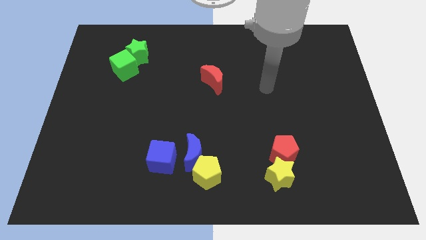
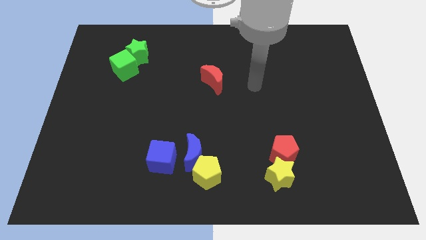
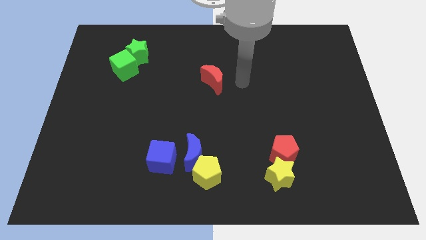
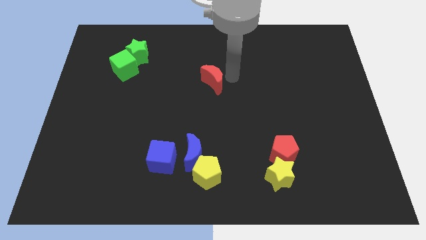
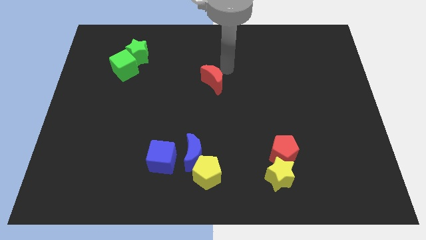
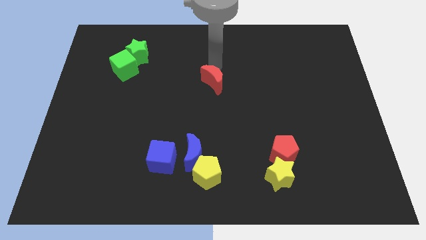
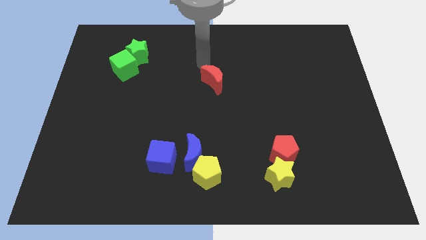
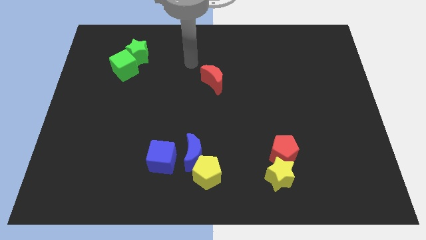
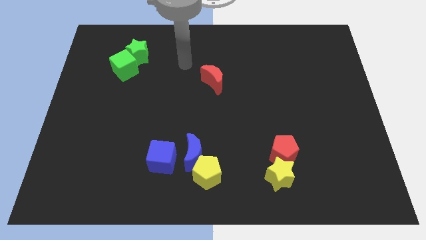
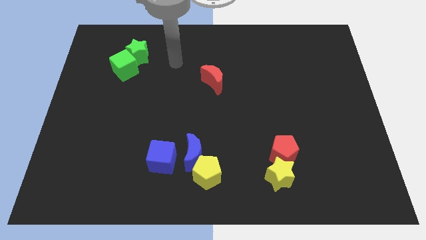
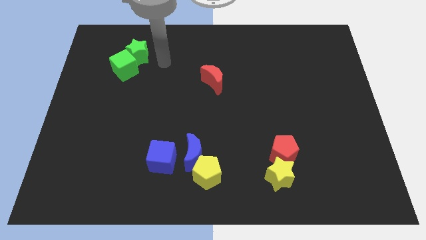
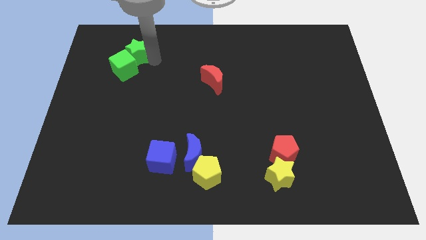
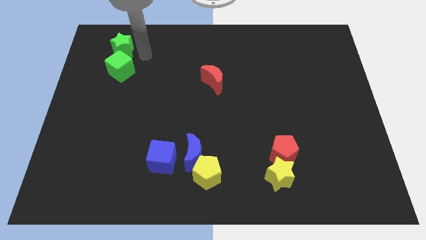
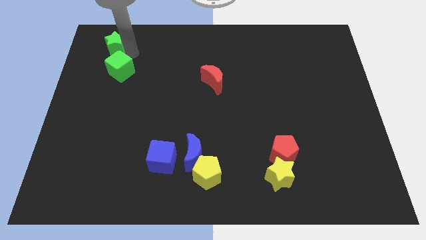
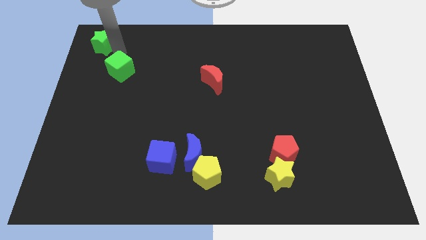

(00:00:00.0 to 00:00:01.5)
move the green cube away from the green star

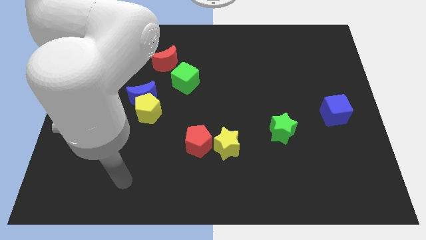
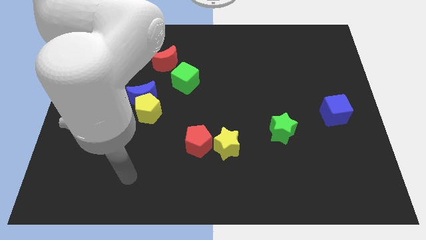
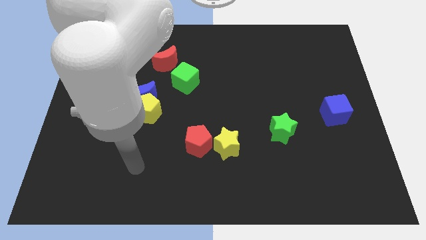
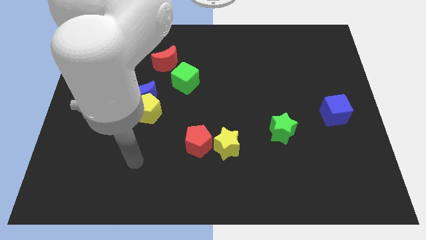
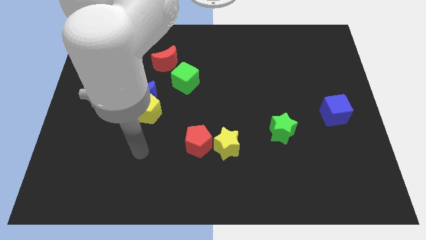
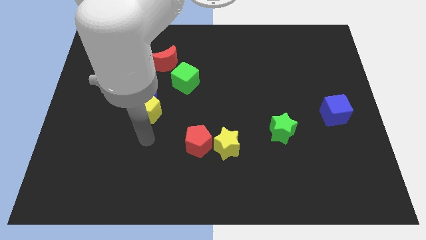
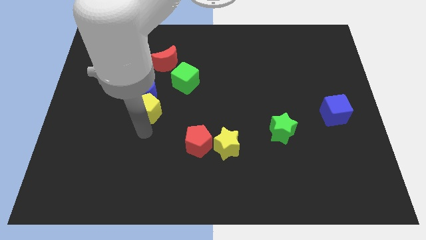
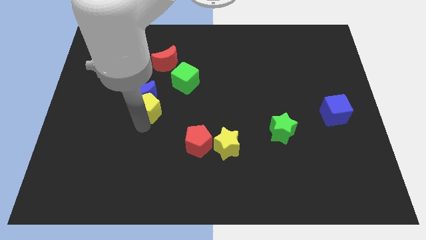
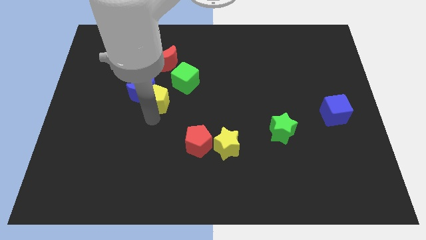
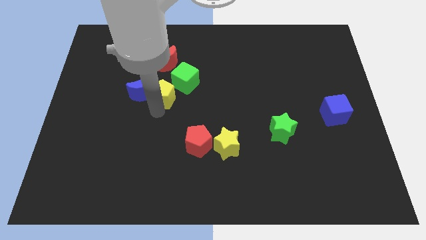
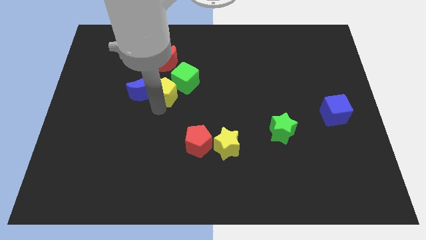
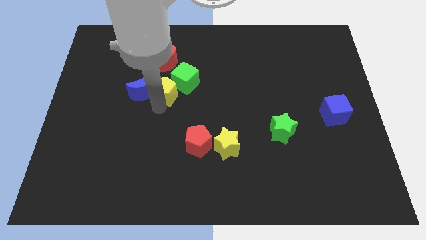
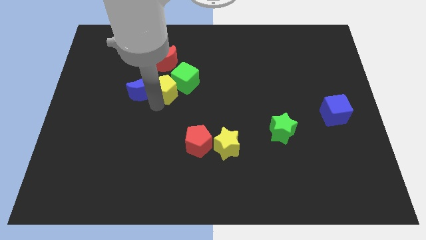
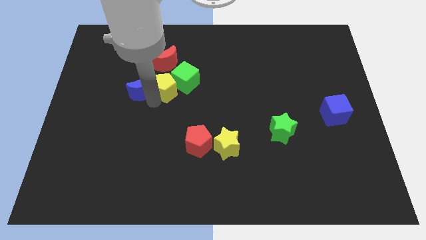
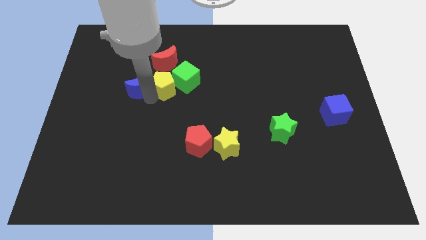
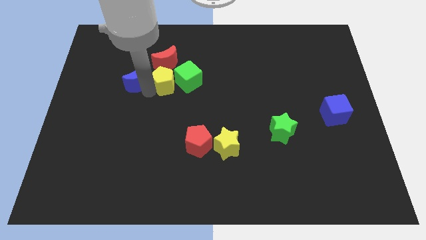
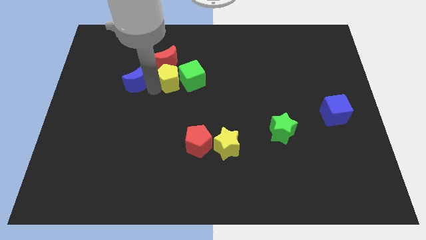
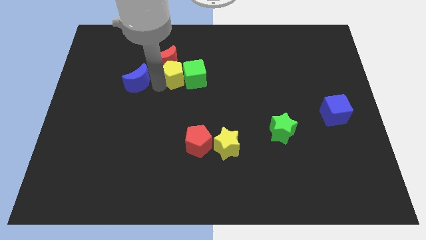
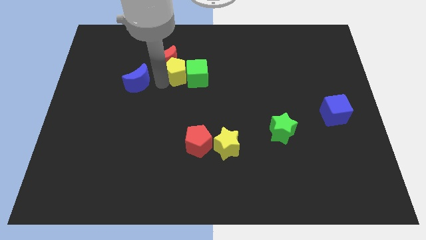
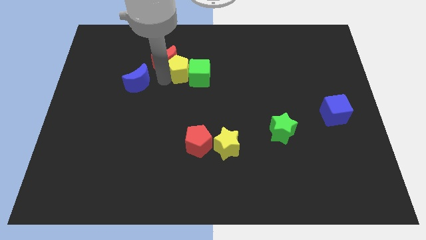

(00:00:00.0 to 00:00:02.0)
separate the blue moon from the yellow pentagon

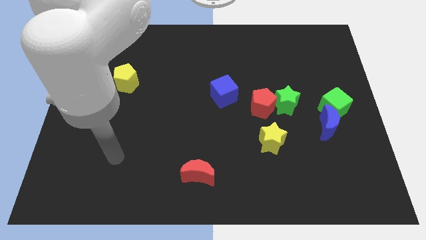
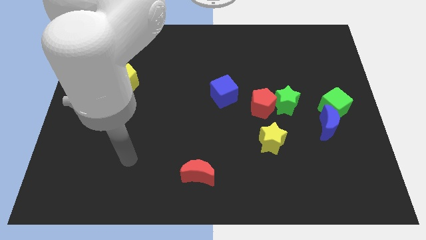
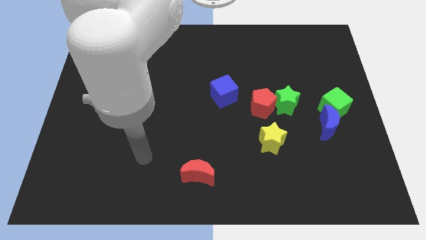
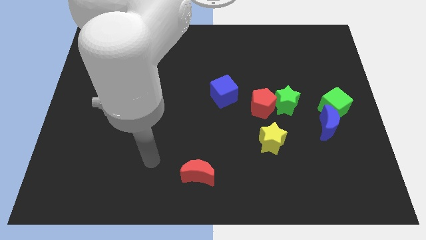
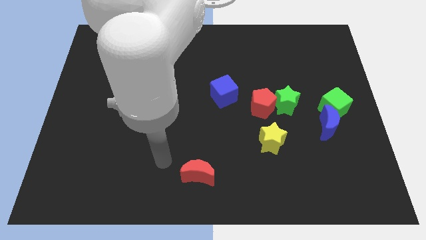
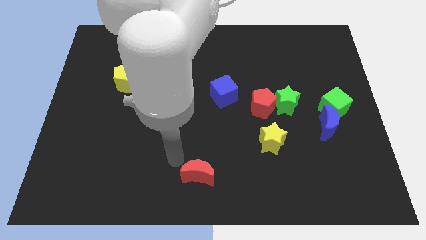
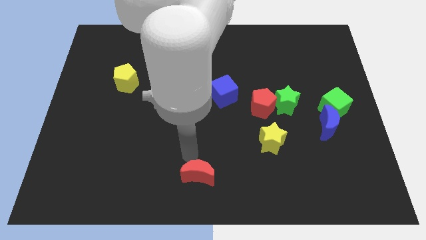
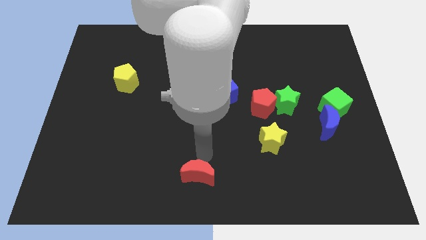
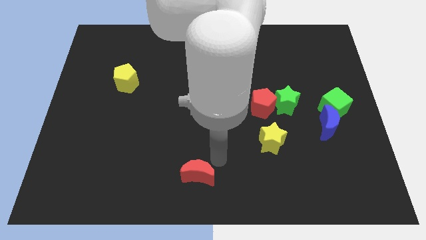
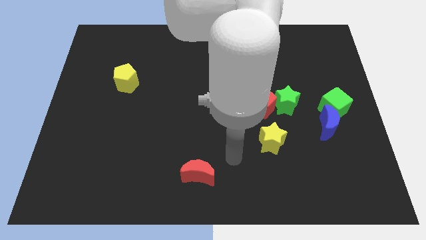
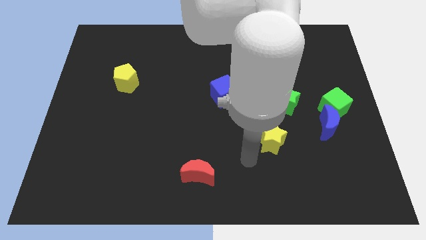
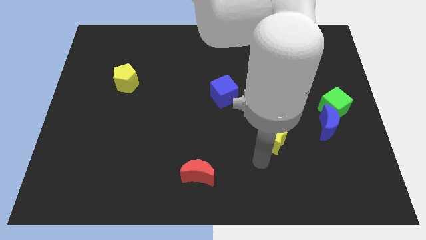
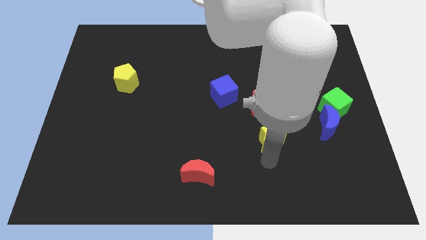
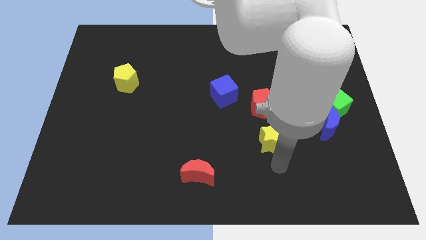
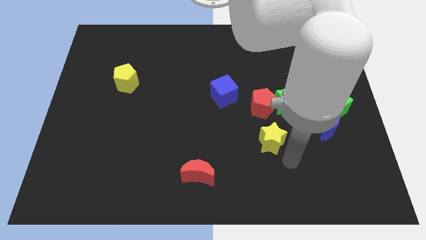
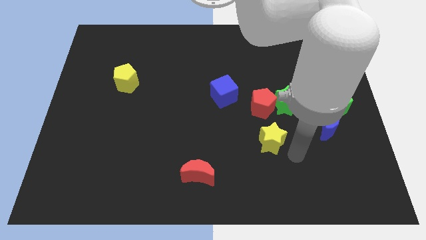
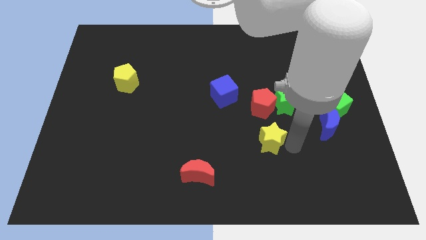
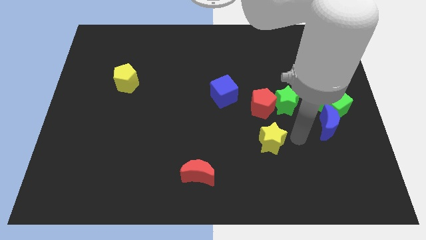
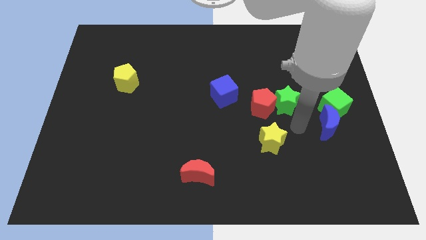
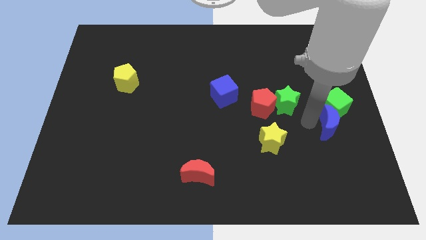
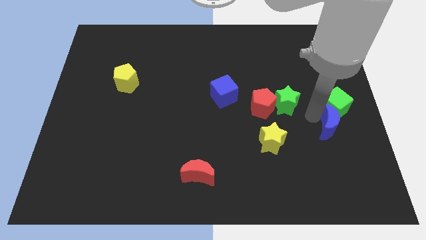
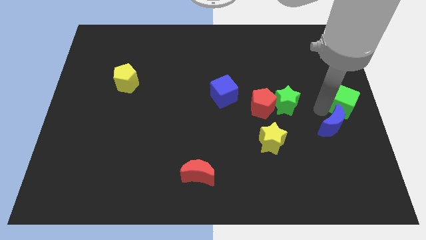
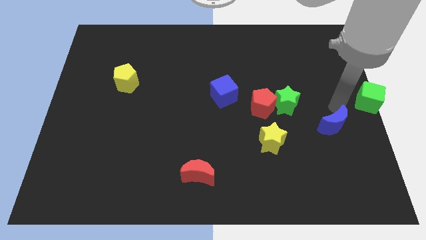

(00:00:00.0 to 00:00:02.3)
separate the blue moon from the green cube

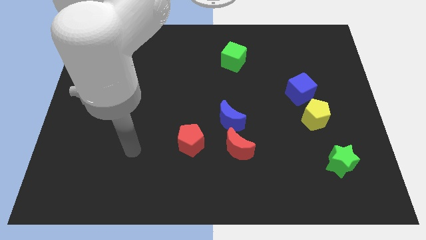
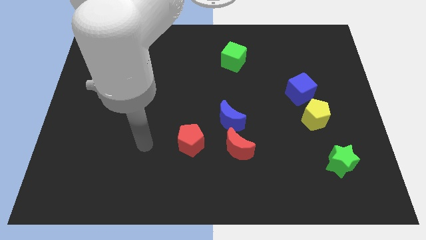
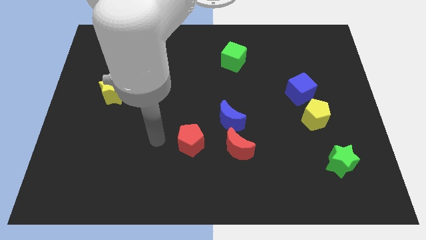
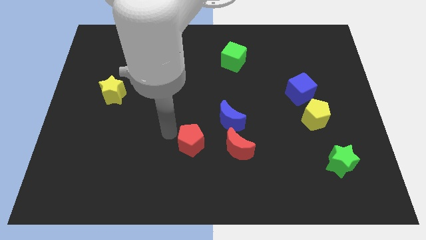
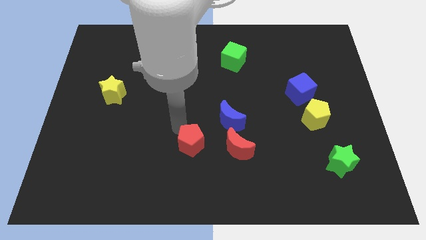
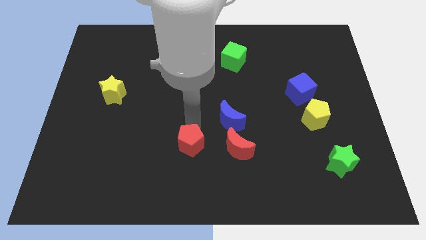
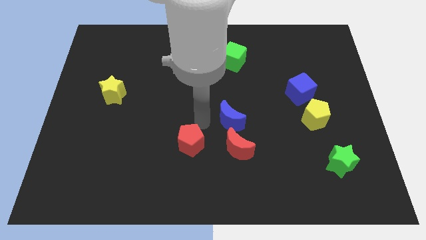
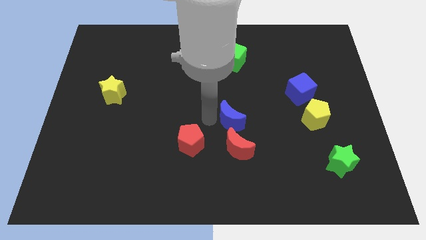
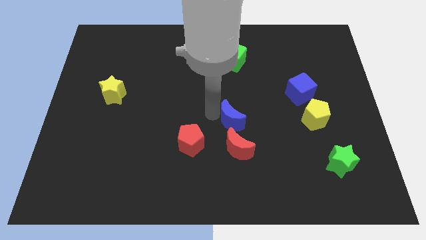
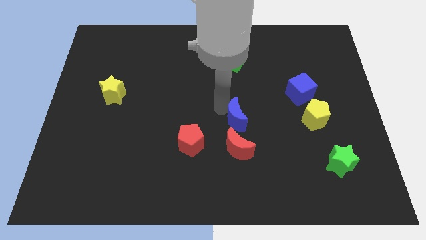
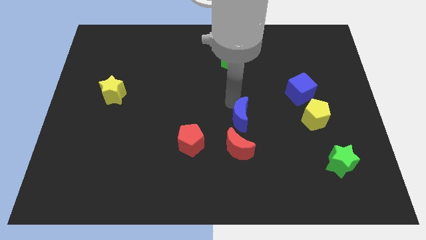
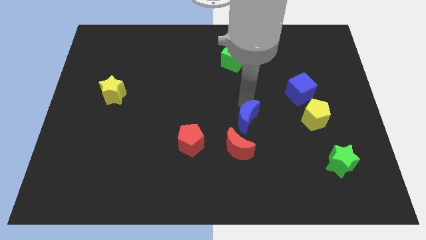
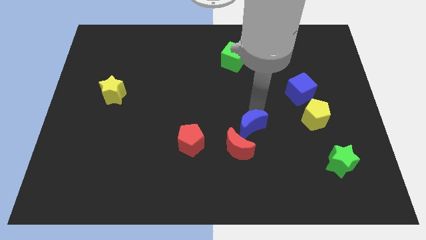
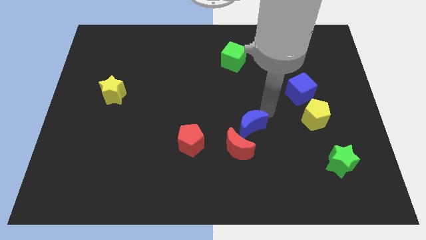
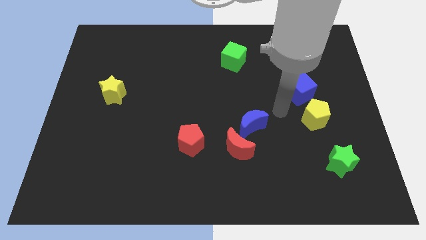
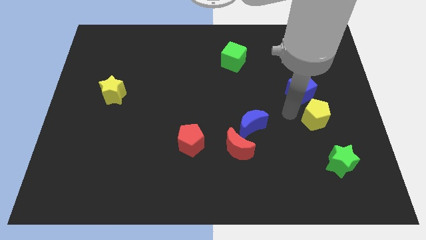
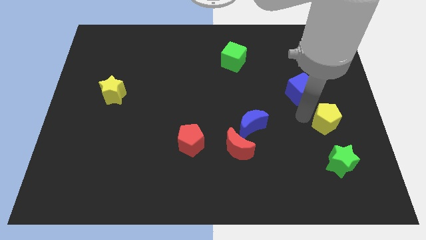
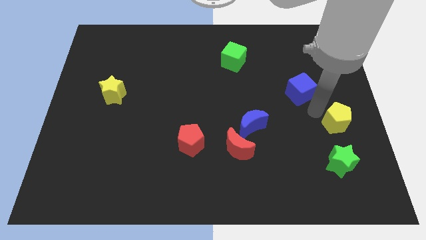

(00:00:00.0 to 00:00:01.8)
separate the blue cube from the yellow pentagon

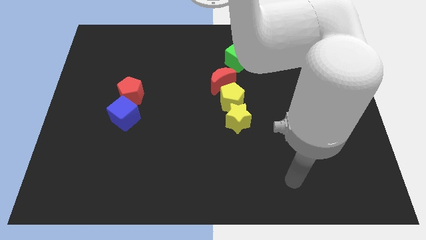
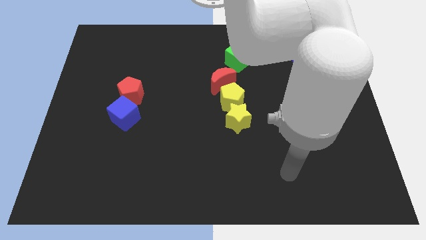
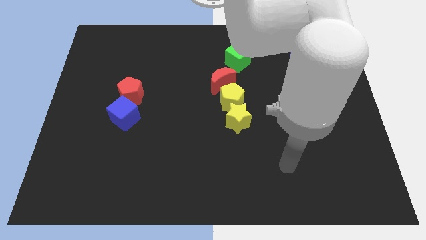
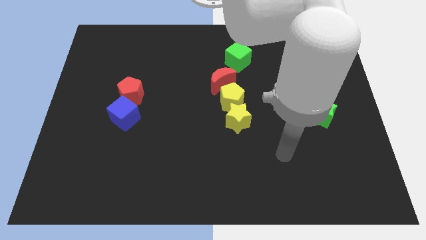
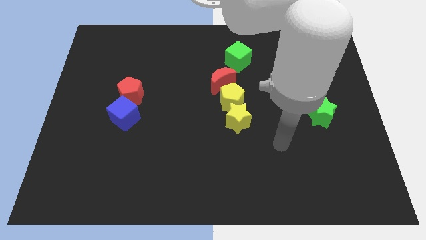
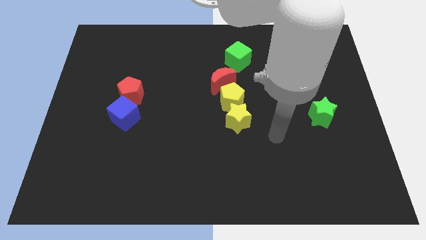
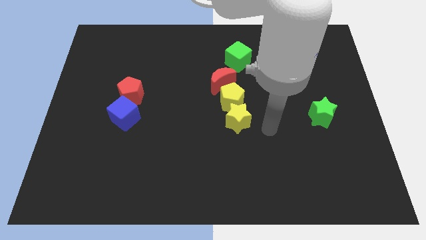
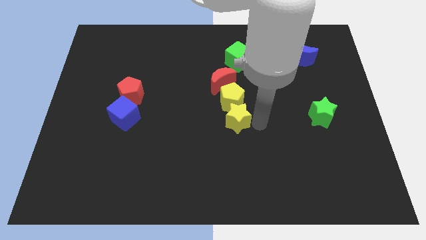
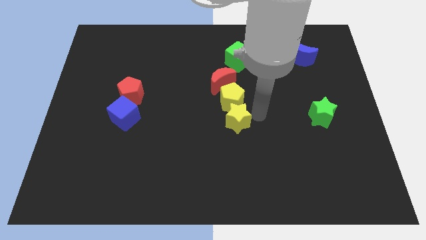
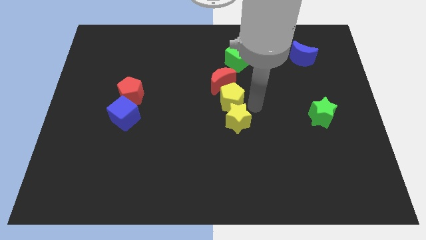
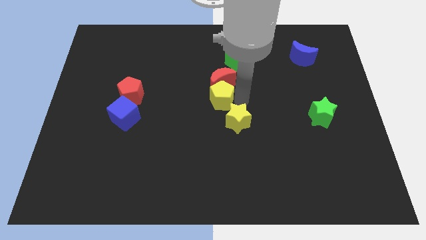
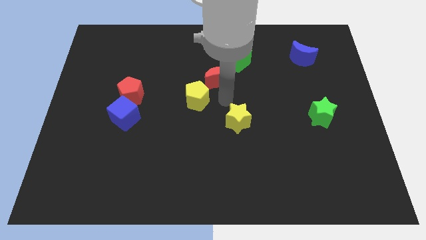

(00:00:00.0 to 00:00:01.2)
move the yellow star away from the yellow pentagon

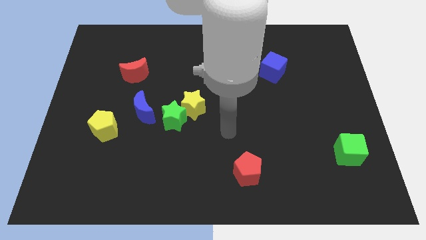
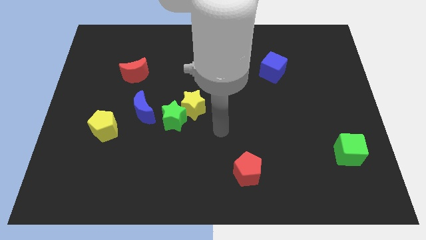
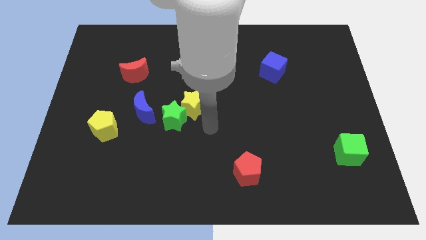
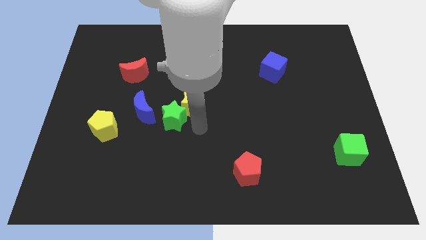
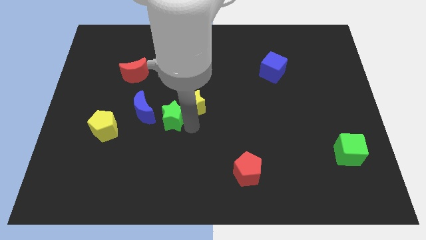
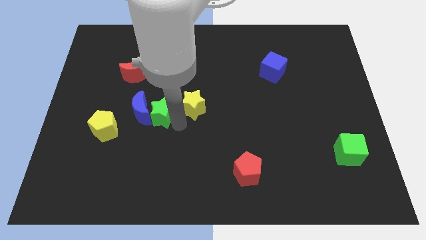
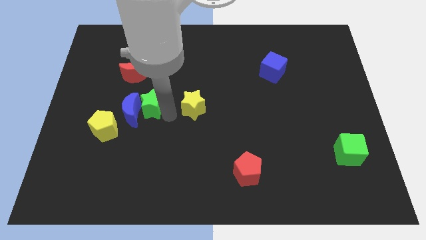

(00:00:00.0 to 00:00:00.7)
separate the yellow star from the green star
